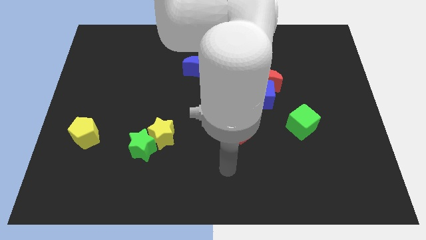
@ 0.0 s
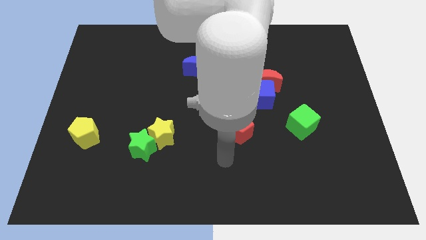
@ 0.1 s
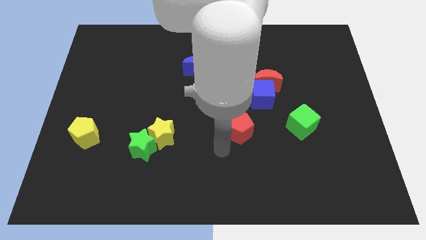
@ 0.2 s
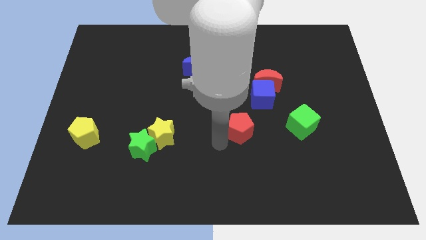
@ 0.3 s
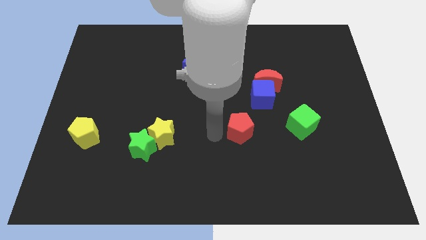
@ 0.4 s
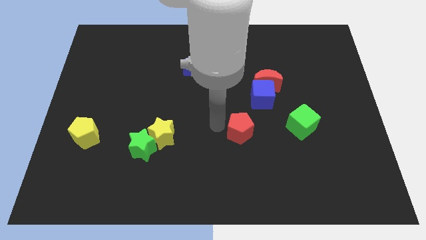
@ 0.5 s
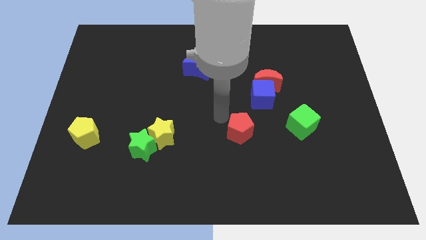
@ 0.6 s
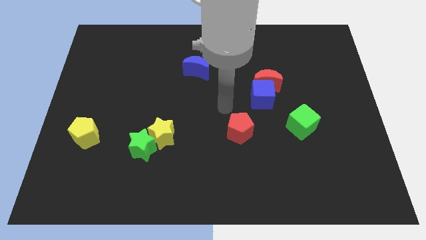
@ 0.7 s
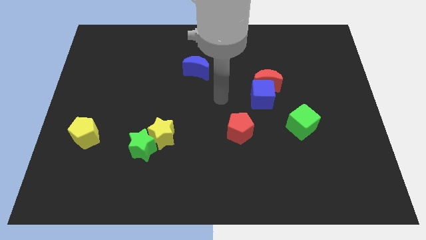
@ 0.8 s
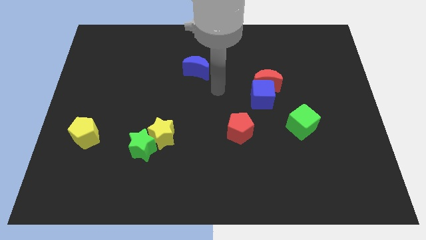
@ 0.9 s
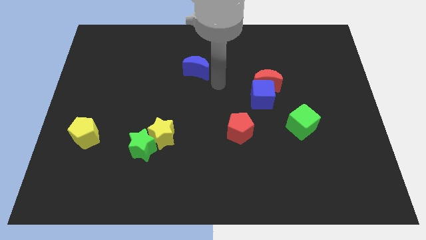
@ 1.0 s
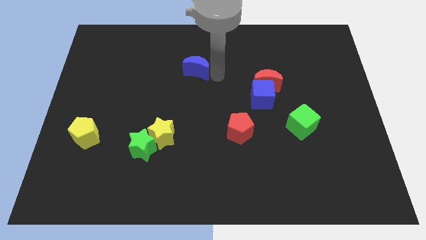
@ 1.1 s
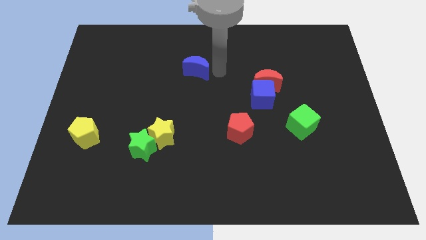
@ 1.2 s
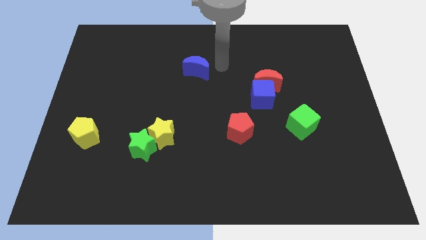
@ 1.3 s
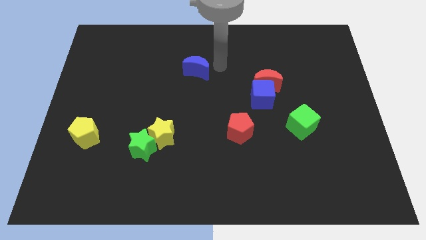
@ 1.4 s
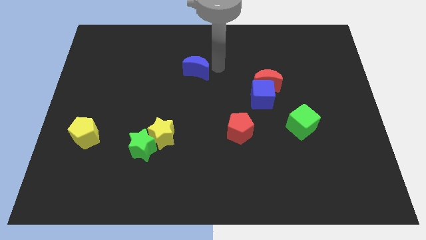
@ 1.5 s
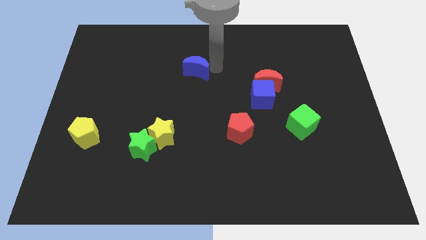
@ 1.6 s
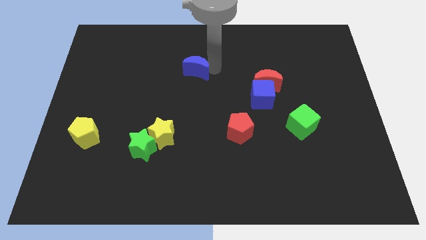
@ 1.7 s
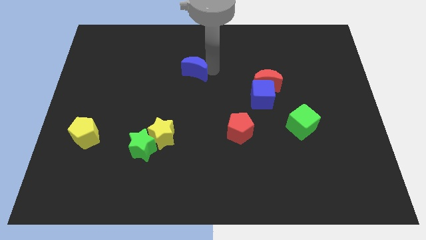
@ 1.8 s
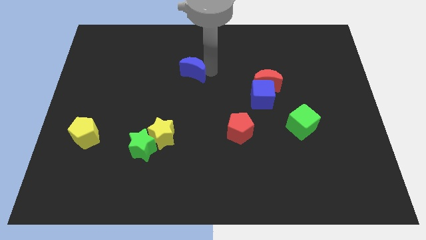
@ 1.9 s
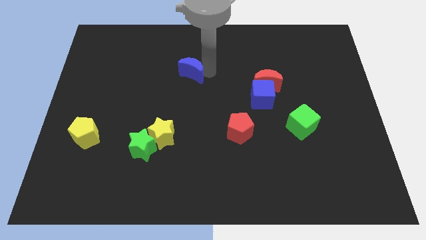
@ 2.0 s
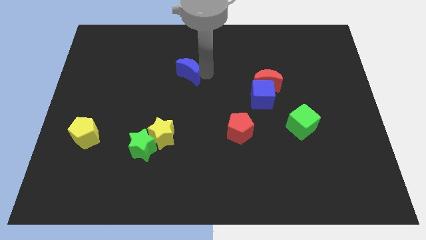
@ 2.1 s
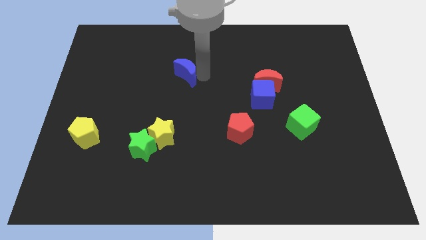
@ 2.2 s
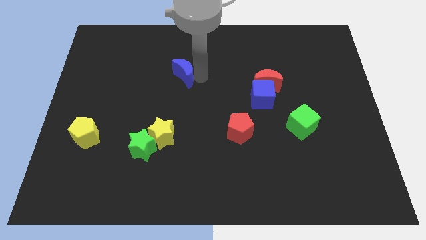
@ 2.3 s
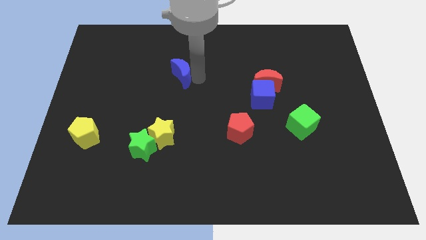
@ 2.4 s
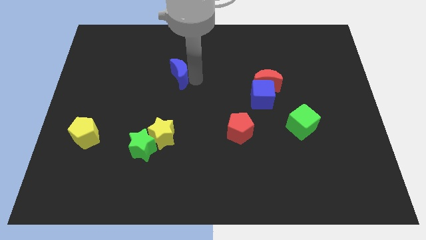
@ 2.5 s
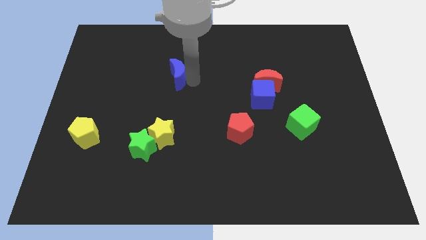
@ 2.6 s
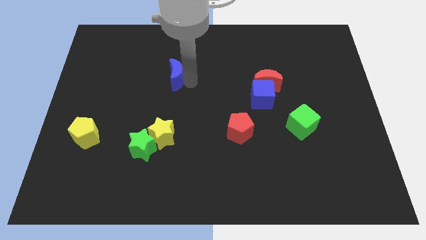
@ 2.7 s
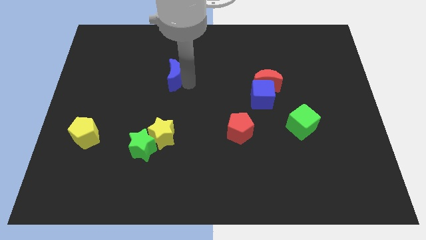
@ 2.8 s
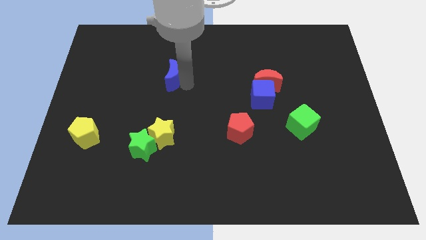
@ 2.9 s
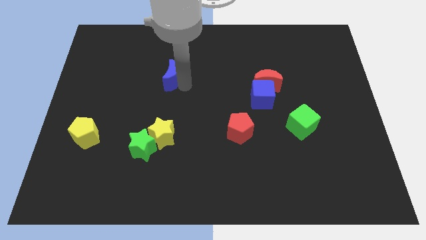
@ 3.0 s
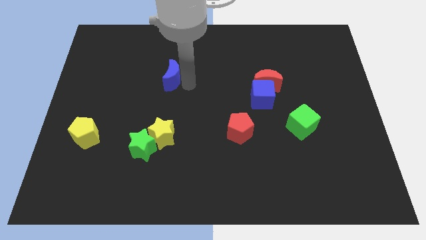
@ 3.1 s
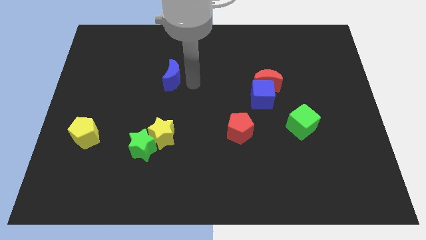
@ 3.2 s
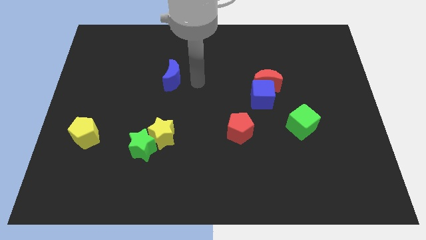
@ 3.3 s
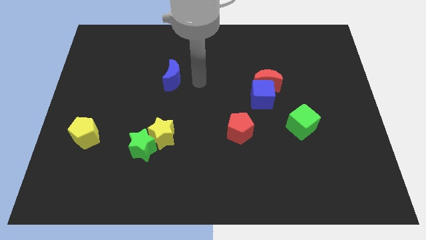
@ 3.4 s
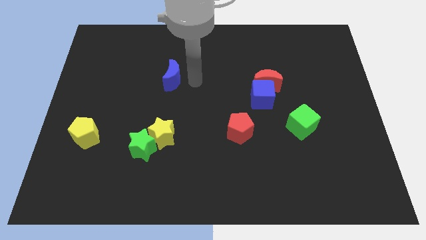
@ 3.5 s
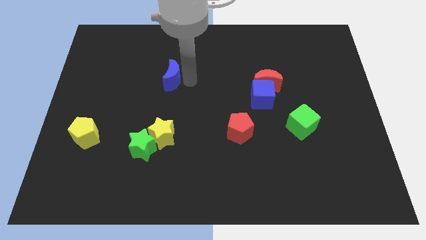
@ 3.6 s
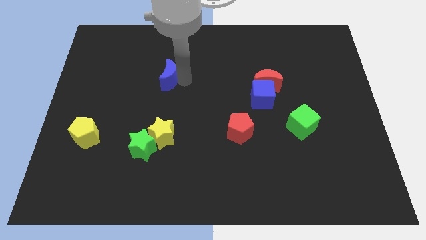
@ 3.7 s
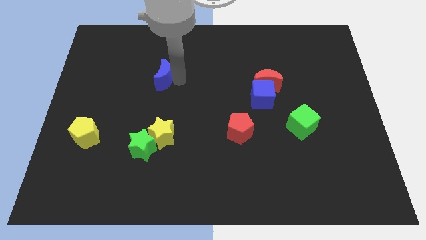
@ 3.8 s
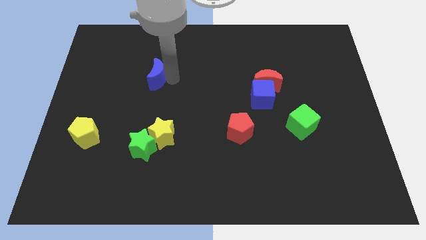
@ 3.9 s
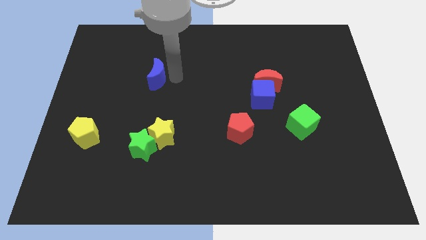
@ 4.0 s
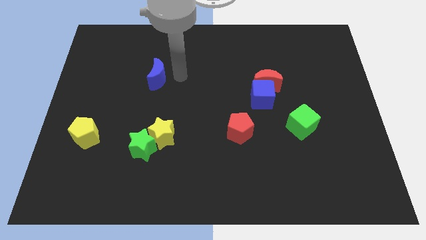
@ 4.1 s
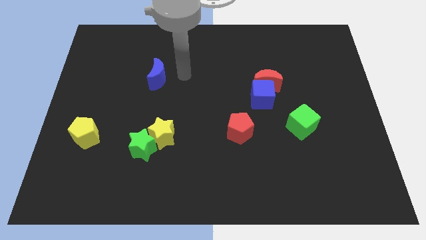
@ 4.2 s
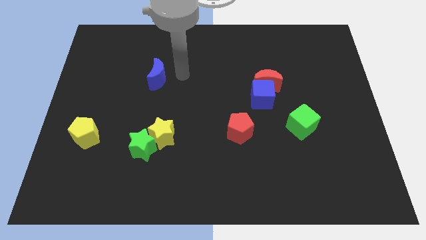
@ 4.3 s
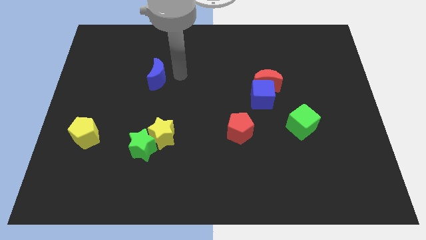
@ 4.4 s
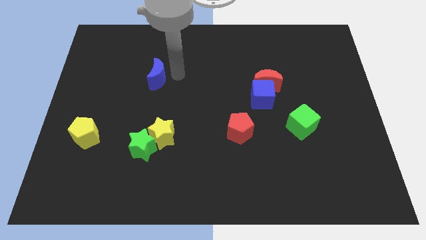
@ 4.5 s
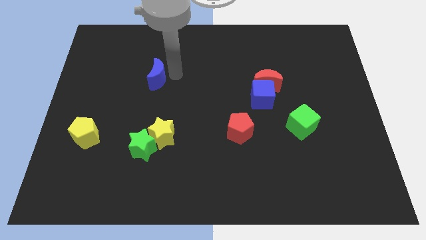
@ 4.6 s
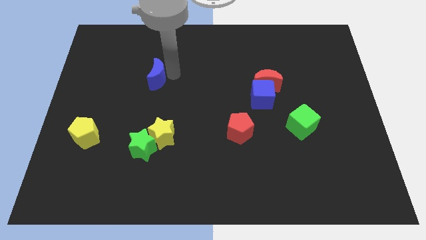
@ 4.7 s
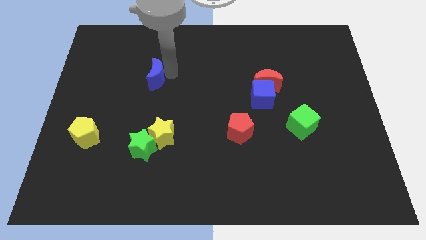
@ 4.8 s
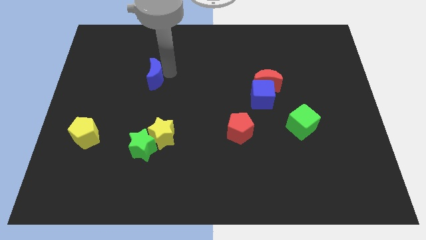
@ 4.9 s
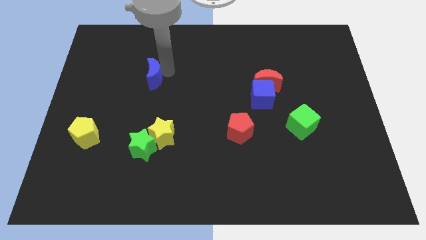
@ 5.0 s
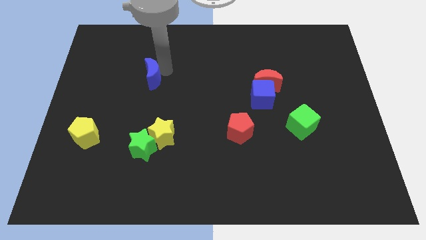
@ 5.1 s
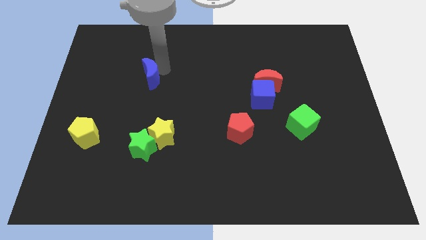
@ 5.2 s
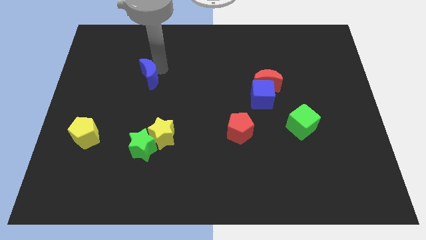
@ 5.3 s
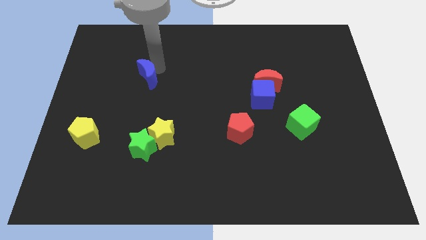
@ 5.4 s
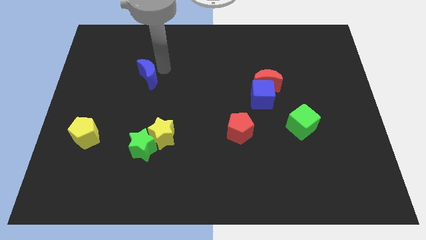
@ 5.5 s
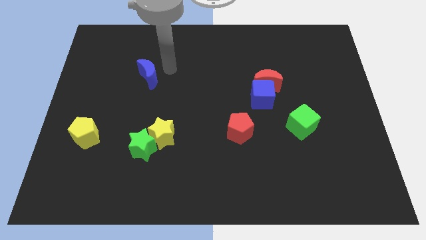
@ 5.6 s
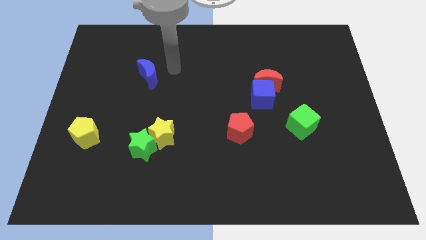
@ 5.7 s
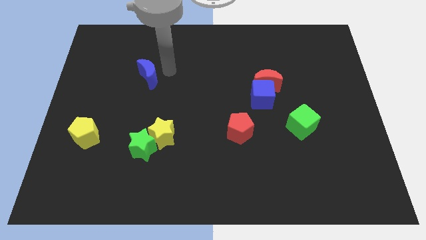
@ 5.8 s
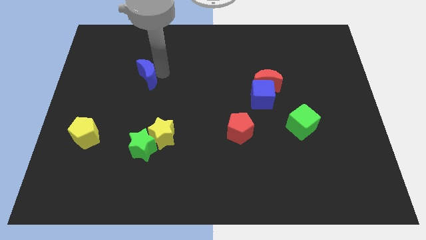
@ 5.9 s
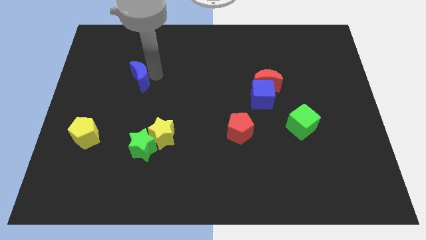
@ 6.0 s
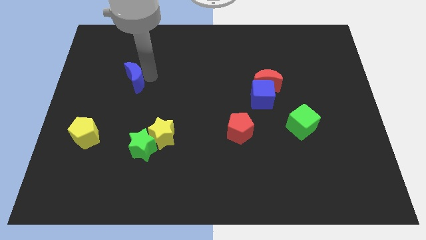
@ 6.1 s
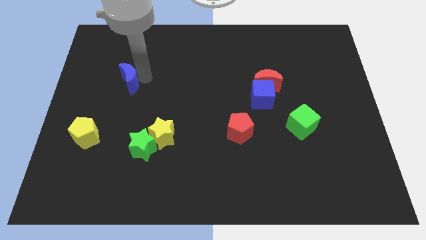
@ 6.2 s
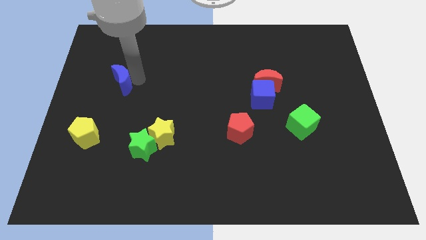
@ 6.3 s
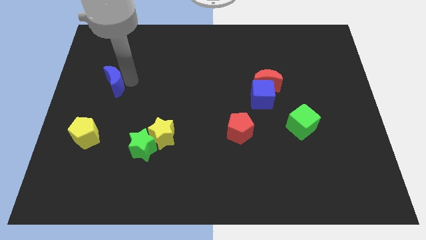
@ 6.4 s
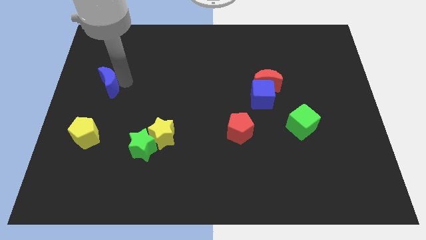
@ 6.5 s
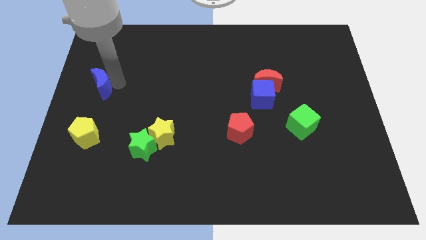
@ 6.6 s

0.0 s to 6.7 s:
push the blue moon to the center left
